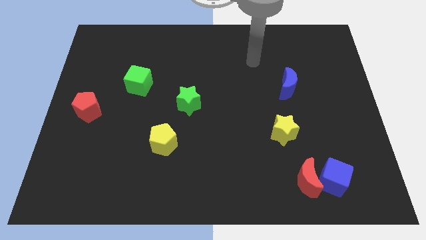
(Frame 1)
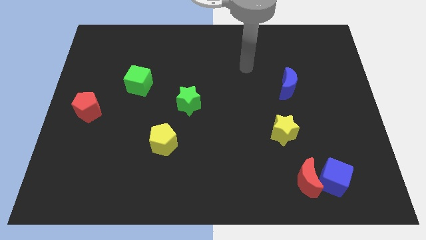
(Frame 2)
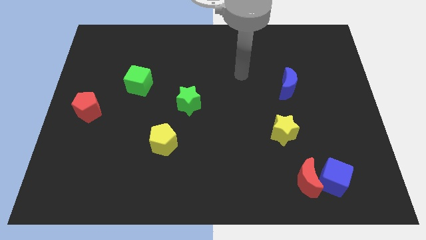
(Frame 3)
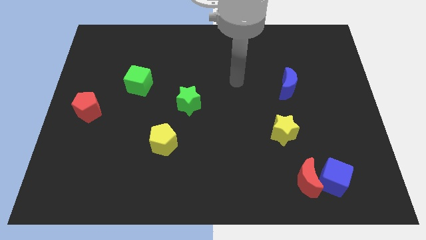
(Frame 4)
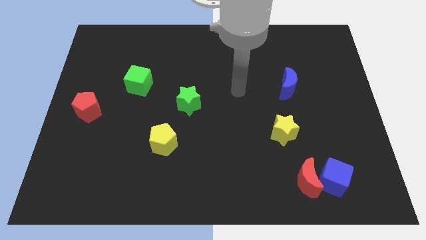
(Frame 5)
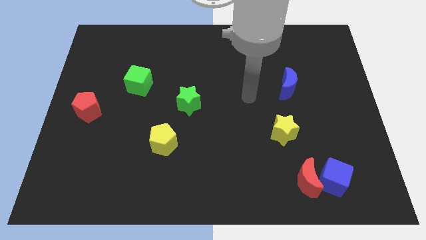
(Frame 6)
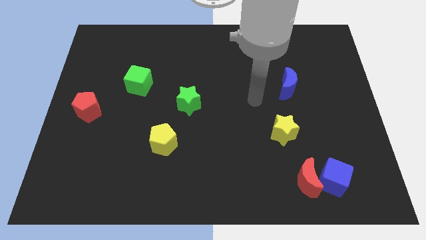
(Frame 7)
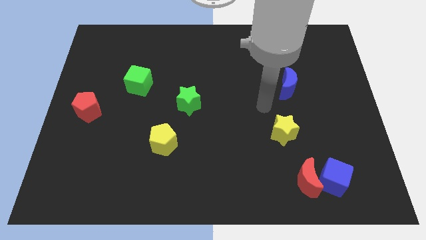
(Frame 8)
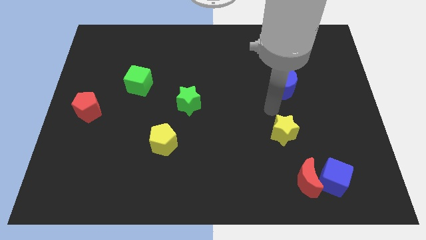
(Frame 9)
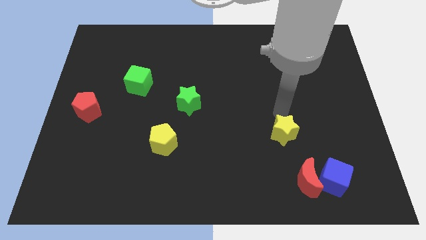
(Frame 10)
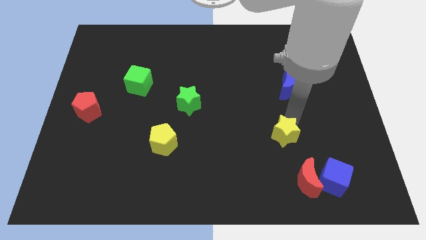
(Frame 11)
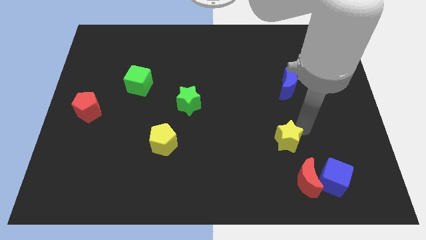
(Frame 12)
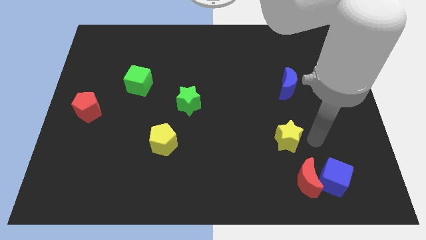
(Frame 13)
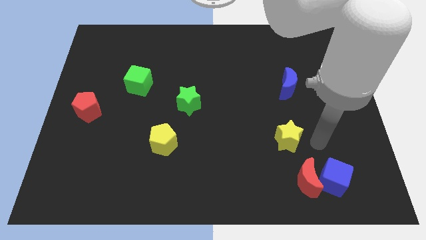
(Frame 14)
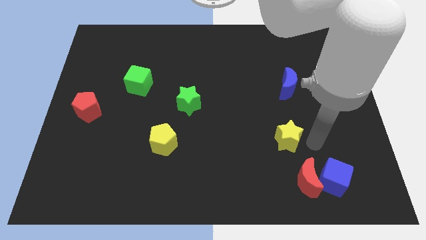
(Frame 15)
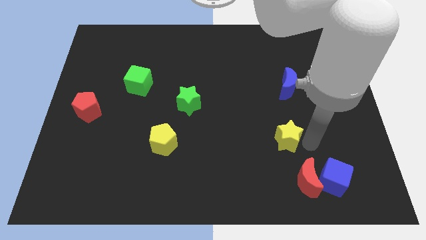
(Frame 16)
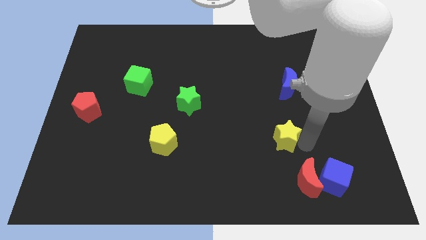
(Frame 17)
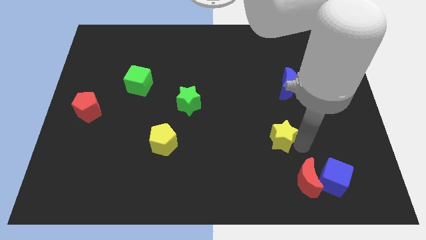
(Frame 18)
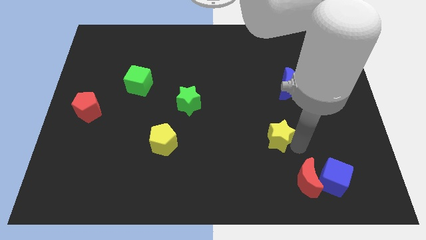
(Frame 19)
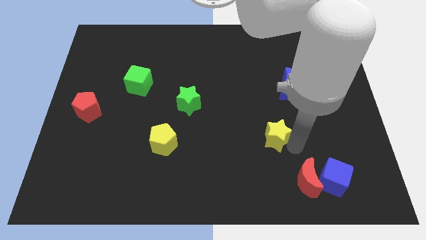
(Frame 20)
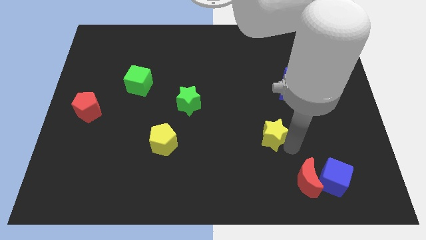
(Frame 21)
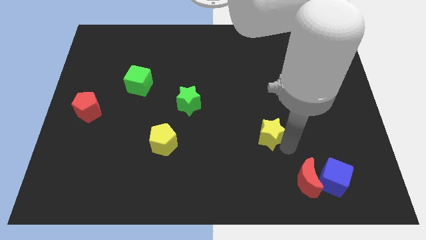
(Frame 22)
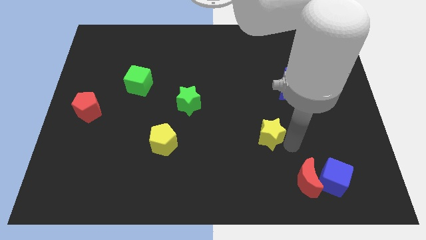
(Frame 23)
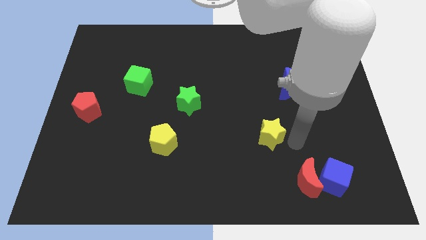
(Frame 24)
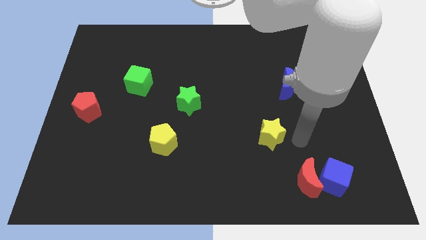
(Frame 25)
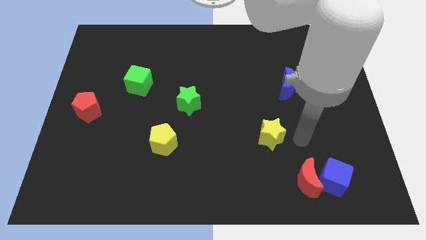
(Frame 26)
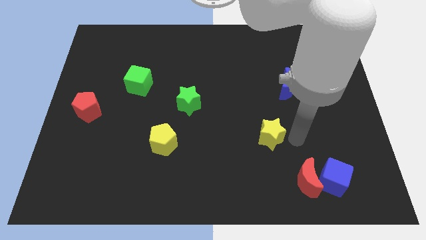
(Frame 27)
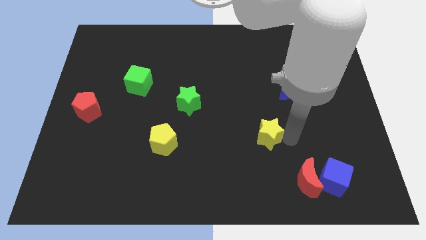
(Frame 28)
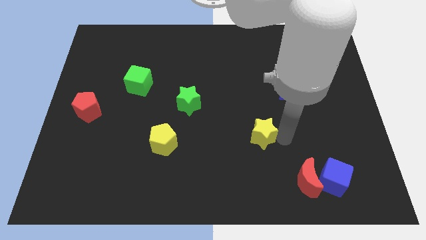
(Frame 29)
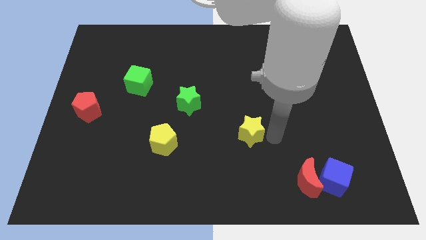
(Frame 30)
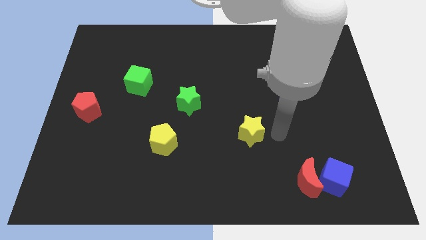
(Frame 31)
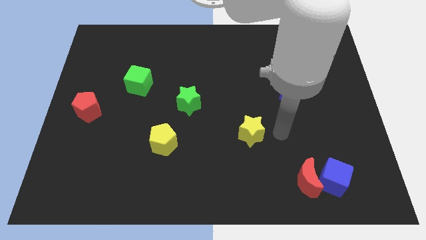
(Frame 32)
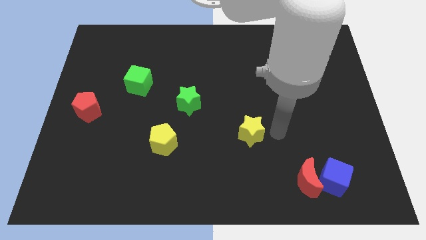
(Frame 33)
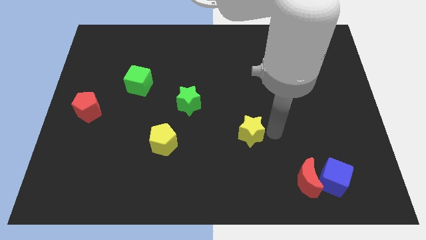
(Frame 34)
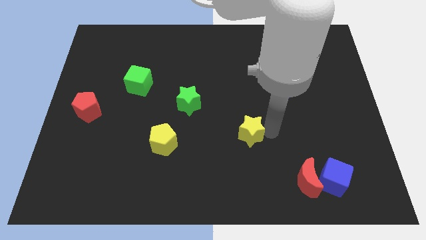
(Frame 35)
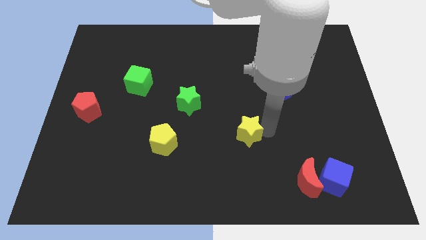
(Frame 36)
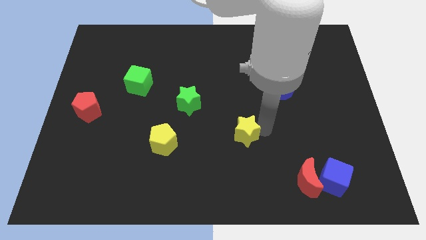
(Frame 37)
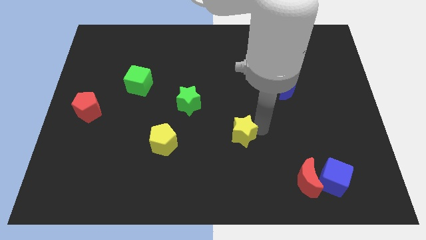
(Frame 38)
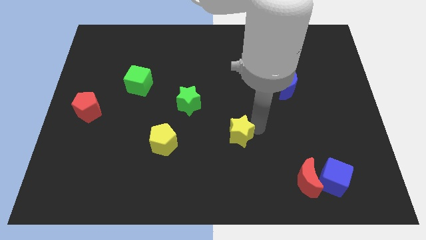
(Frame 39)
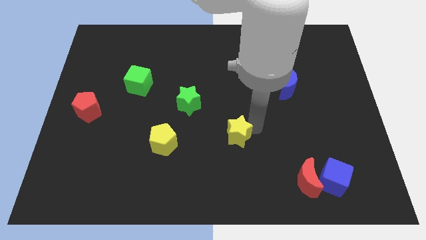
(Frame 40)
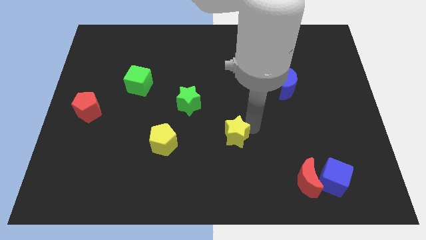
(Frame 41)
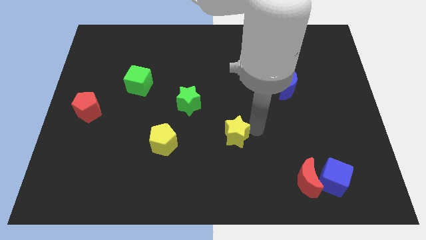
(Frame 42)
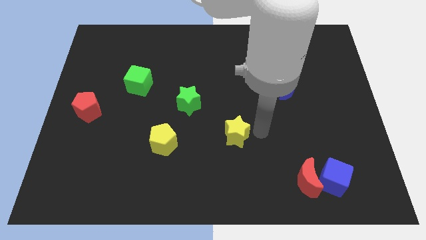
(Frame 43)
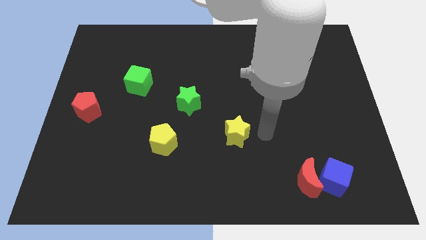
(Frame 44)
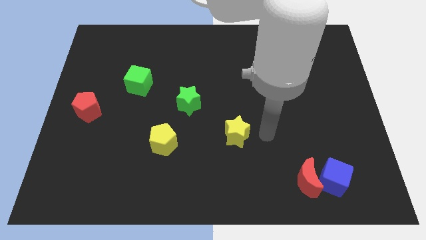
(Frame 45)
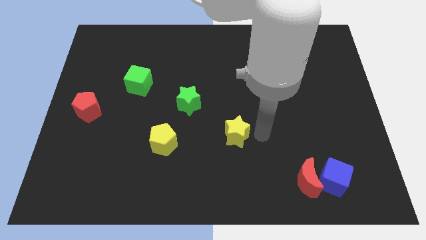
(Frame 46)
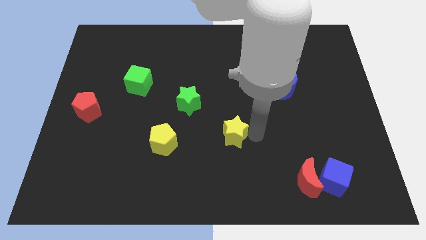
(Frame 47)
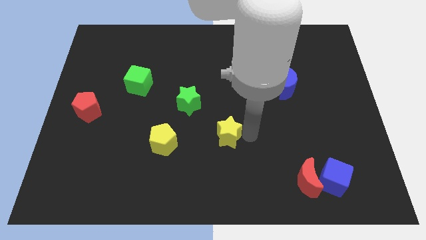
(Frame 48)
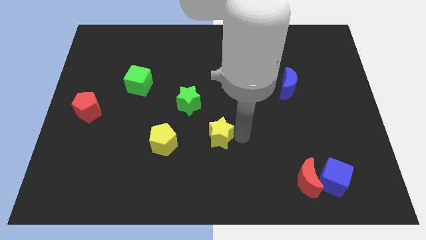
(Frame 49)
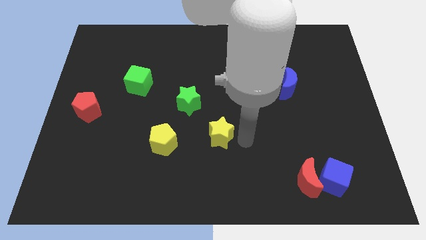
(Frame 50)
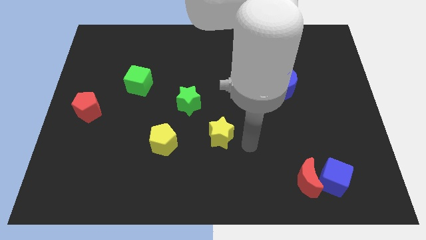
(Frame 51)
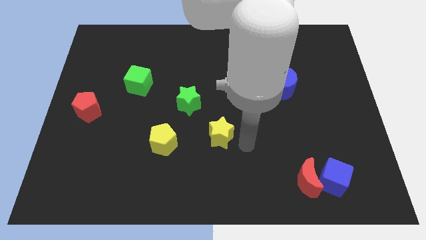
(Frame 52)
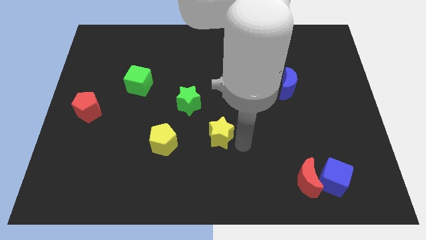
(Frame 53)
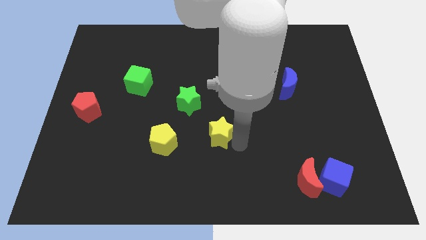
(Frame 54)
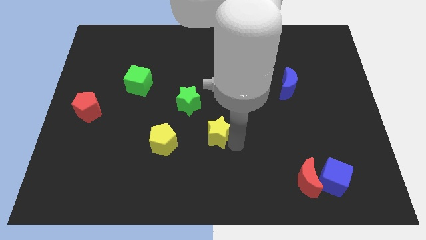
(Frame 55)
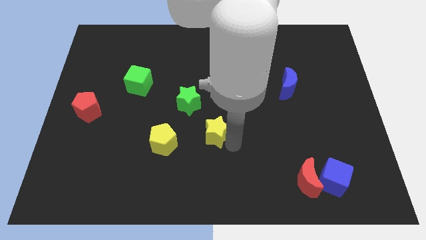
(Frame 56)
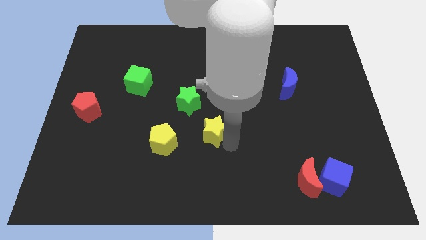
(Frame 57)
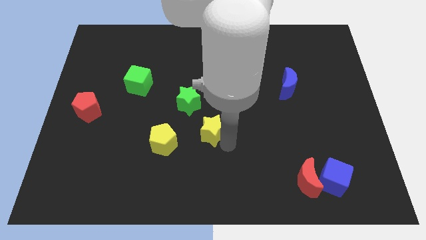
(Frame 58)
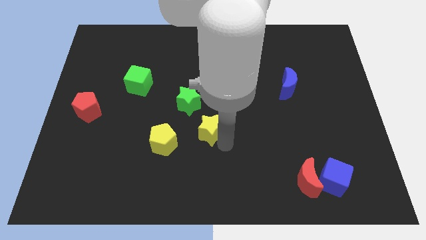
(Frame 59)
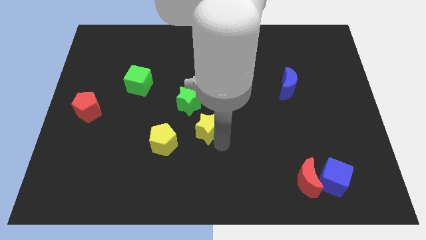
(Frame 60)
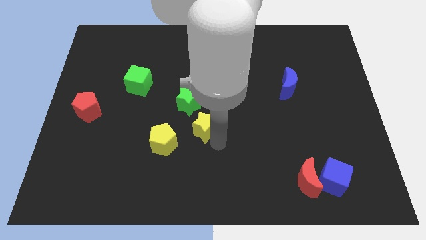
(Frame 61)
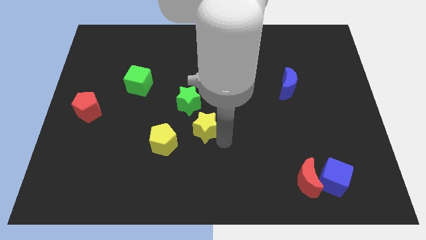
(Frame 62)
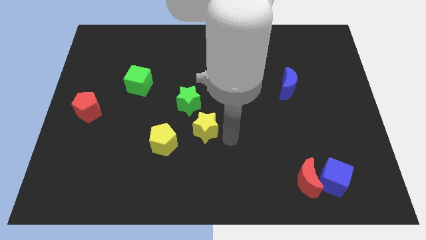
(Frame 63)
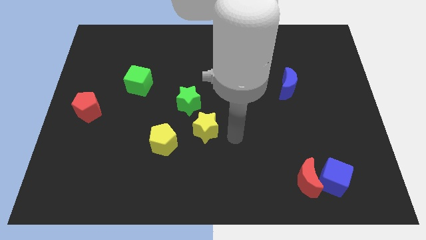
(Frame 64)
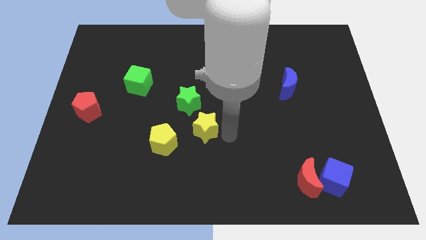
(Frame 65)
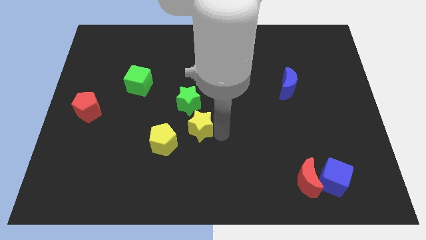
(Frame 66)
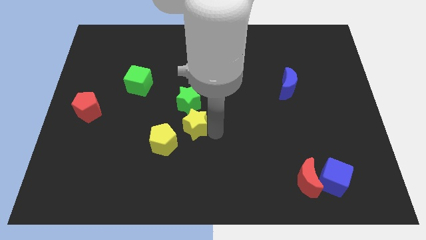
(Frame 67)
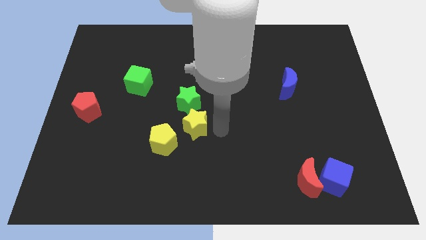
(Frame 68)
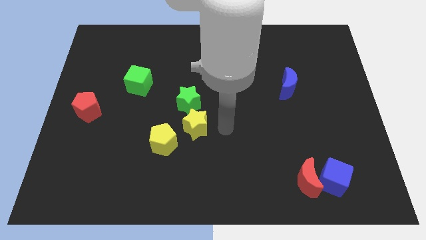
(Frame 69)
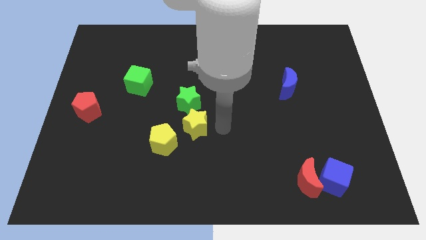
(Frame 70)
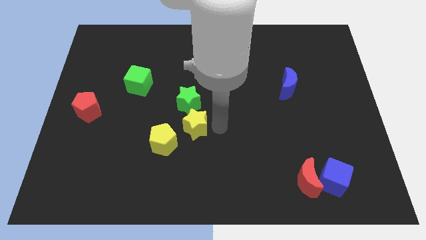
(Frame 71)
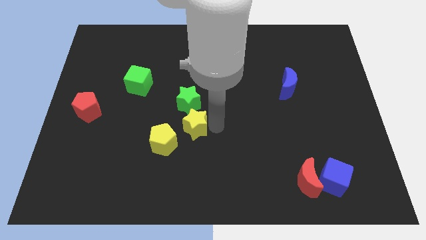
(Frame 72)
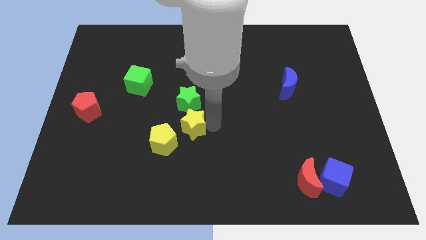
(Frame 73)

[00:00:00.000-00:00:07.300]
slide the yellow star to the left

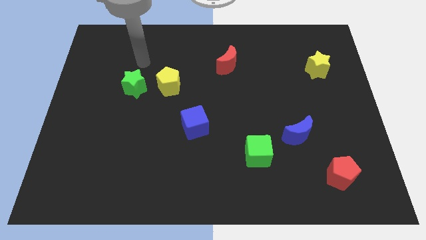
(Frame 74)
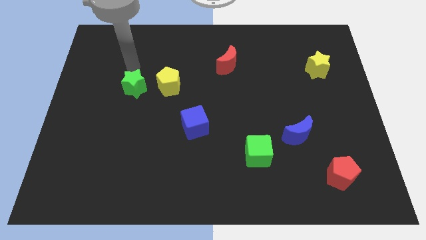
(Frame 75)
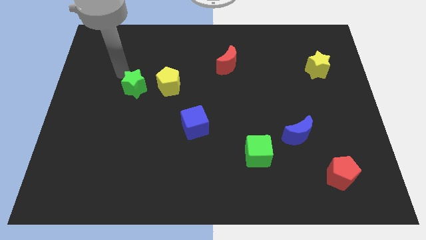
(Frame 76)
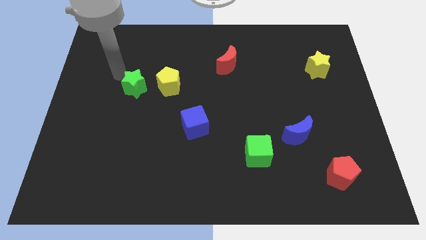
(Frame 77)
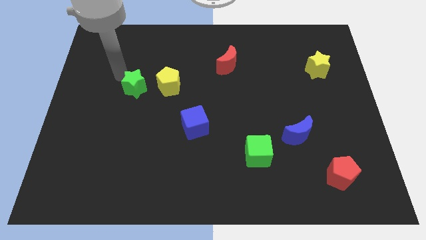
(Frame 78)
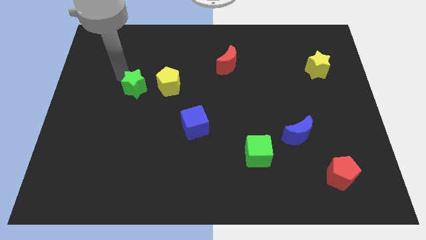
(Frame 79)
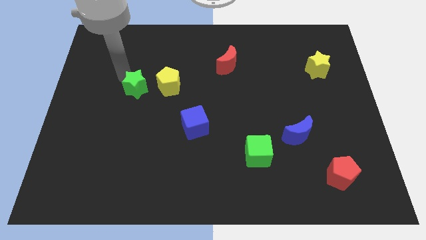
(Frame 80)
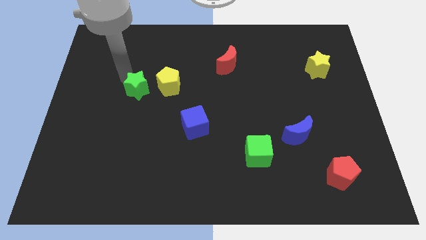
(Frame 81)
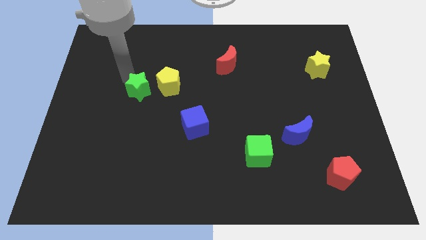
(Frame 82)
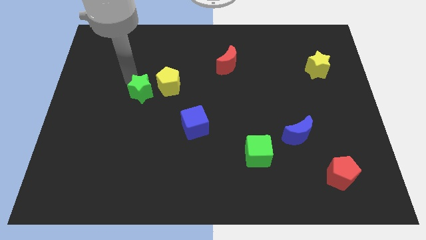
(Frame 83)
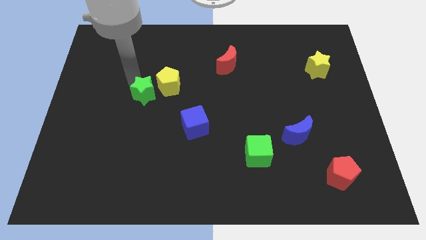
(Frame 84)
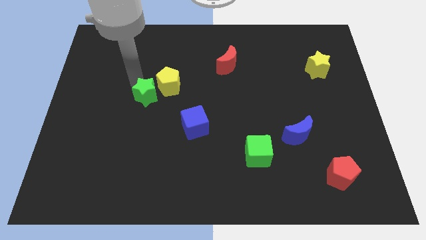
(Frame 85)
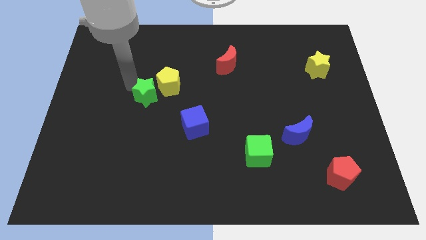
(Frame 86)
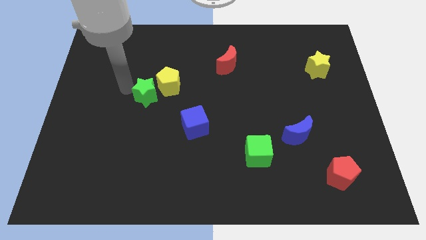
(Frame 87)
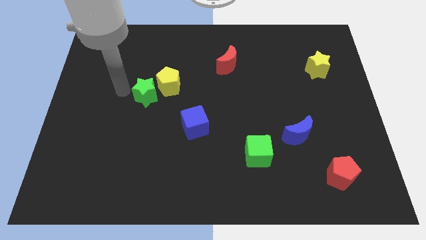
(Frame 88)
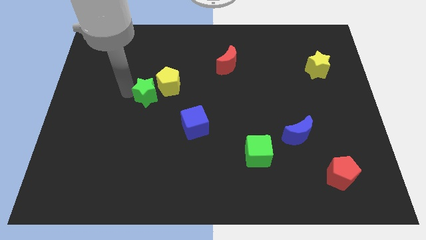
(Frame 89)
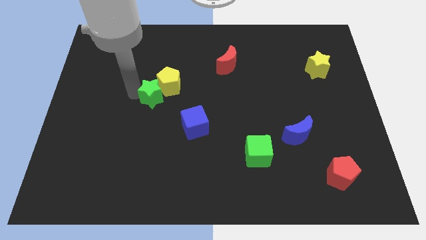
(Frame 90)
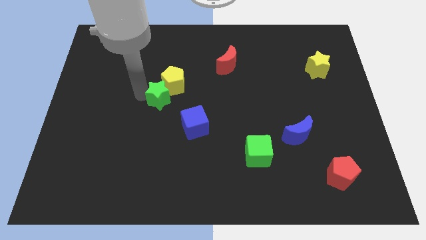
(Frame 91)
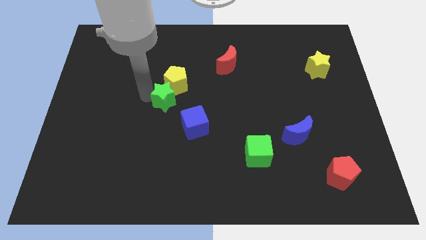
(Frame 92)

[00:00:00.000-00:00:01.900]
slightly slide the green star to the right
